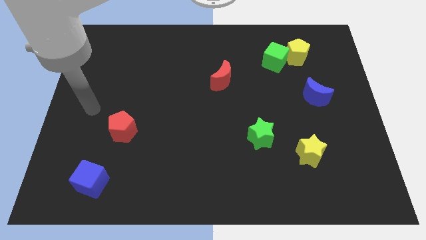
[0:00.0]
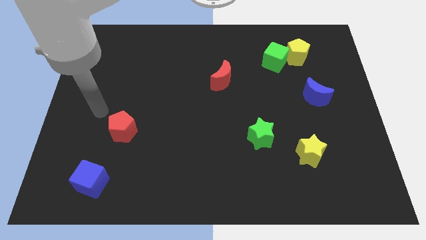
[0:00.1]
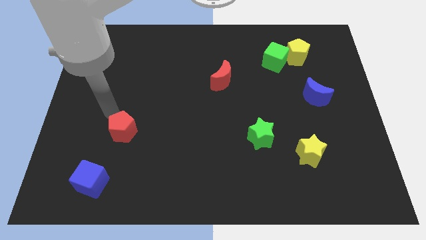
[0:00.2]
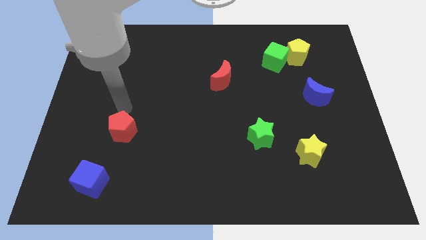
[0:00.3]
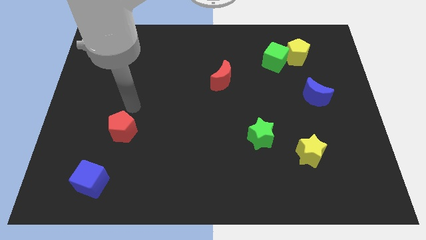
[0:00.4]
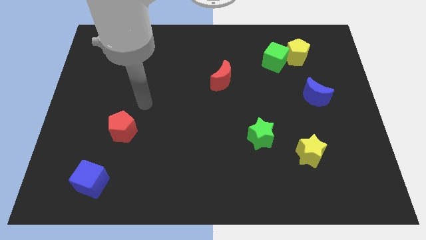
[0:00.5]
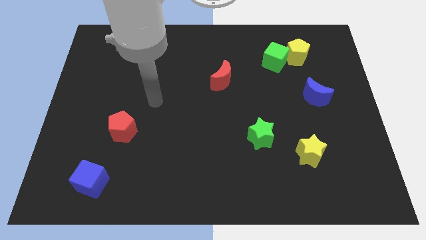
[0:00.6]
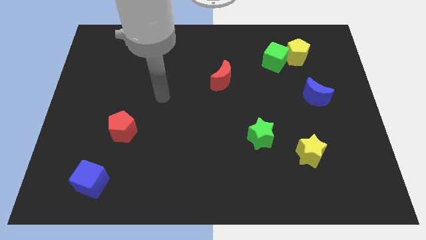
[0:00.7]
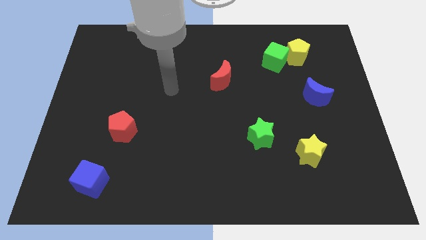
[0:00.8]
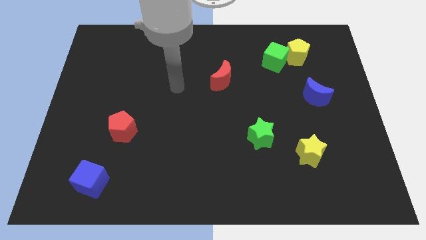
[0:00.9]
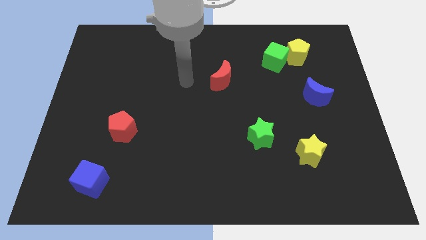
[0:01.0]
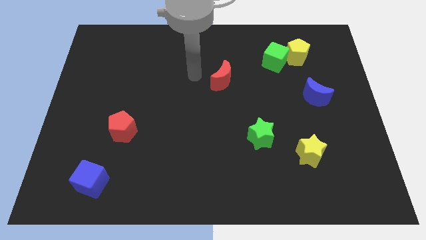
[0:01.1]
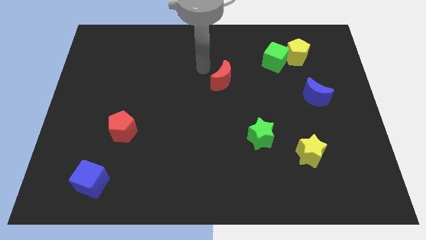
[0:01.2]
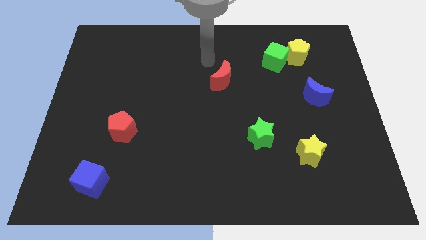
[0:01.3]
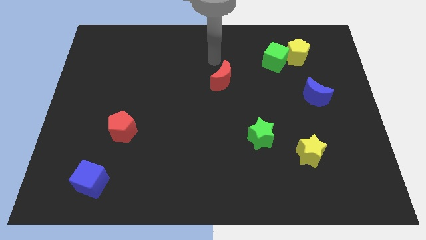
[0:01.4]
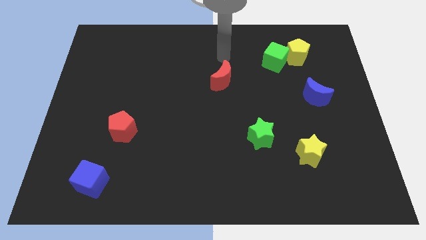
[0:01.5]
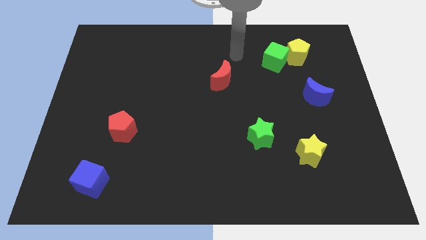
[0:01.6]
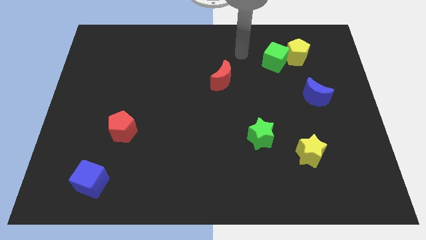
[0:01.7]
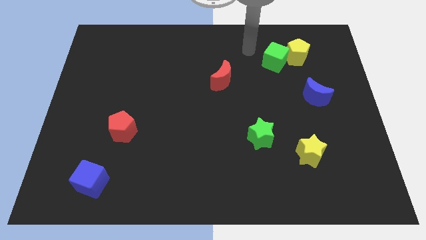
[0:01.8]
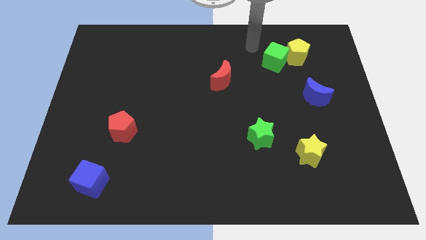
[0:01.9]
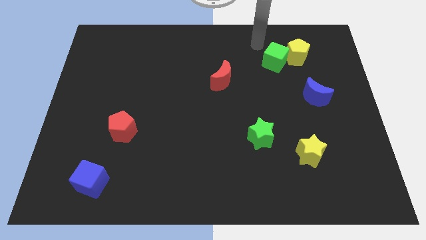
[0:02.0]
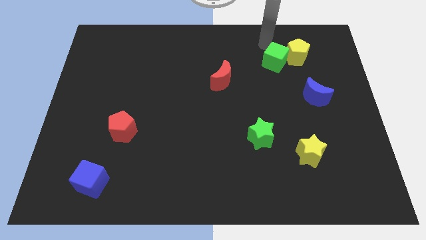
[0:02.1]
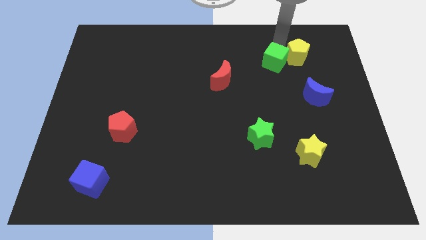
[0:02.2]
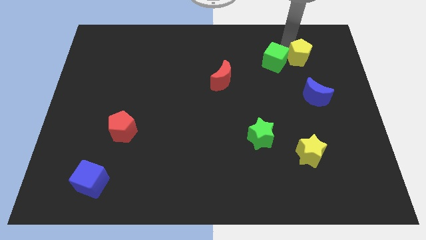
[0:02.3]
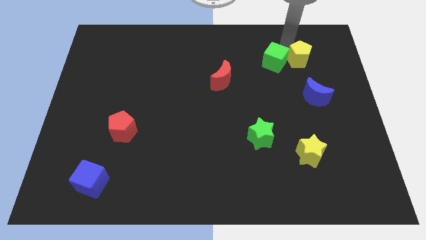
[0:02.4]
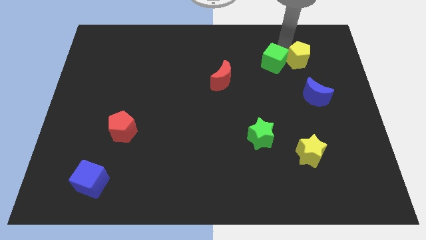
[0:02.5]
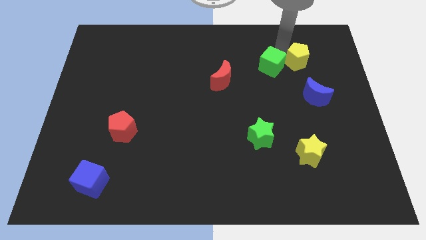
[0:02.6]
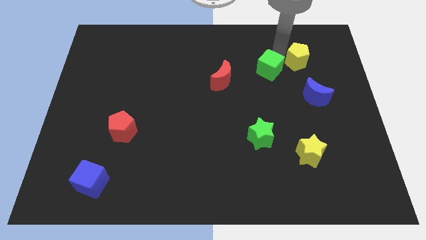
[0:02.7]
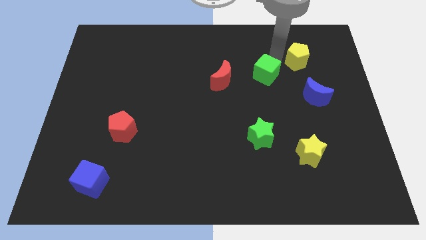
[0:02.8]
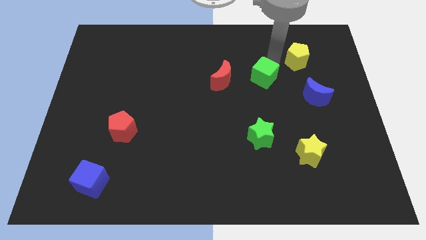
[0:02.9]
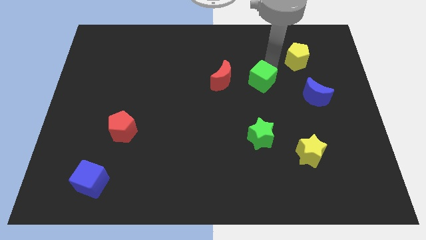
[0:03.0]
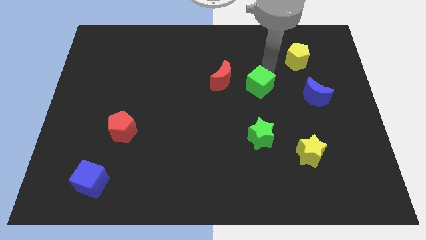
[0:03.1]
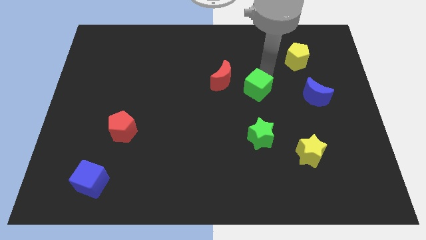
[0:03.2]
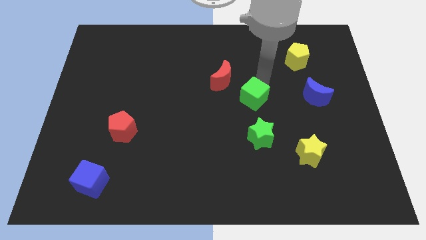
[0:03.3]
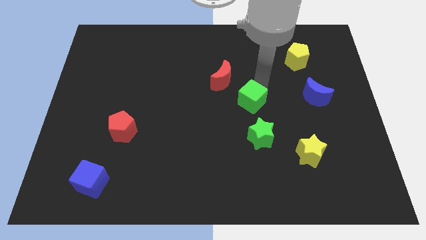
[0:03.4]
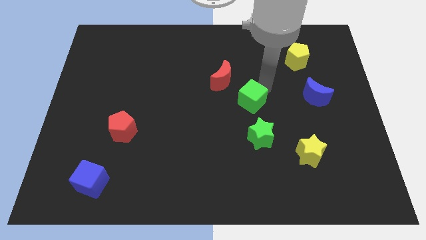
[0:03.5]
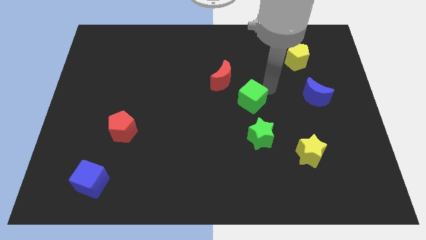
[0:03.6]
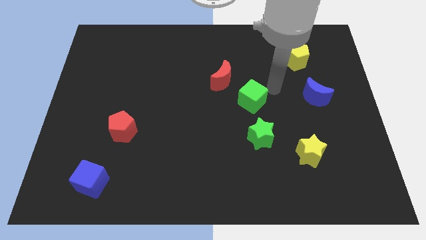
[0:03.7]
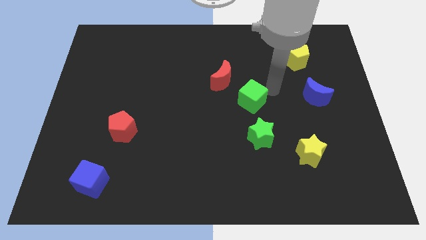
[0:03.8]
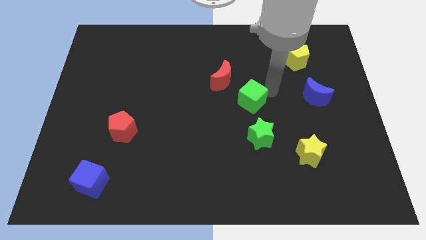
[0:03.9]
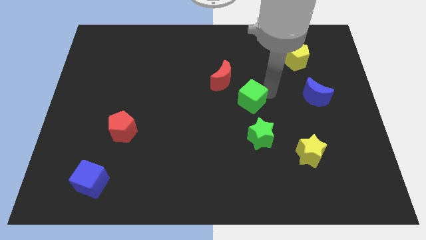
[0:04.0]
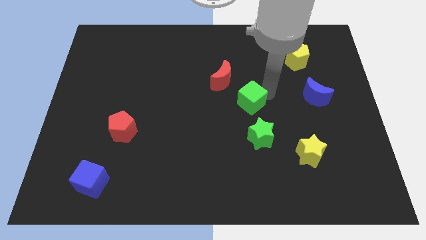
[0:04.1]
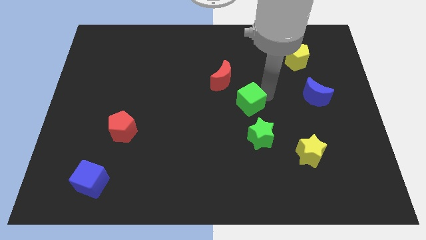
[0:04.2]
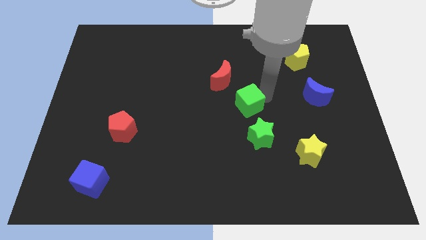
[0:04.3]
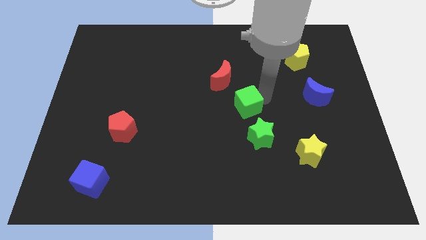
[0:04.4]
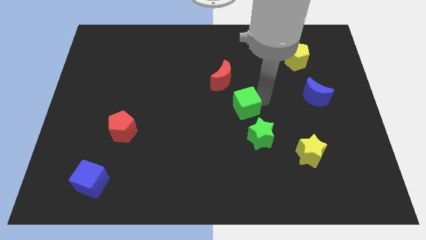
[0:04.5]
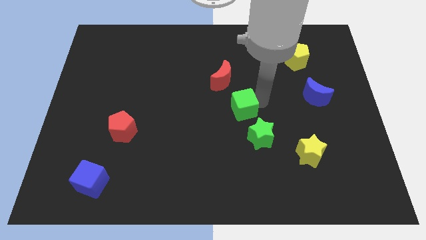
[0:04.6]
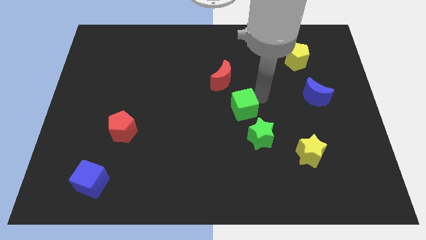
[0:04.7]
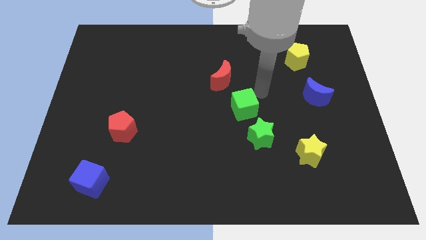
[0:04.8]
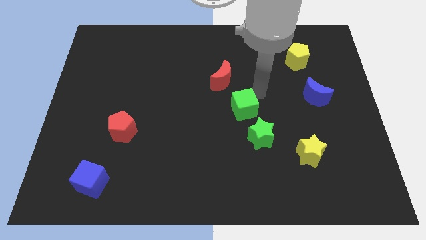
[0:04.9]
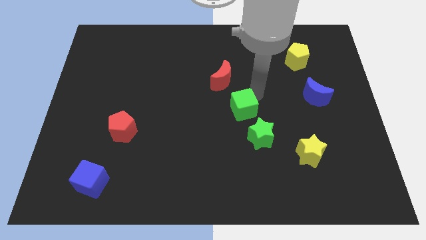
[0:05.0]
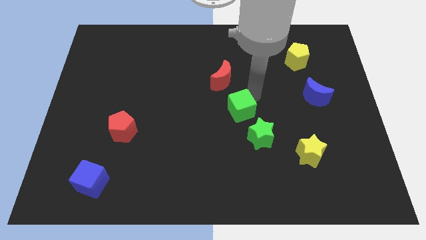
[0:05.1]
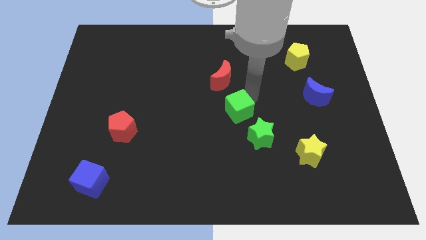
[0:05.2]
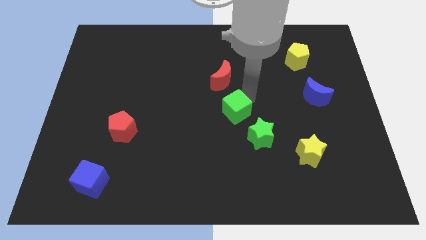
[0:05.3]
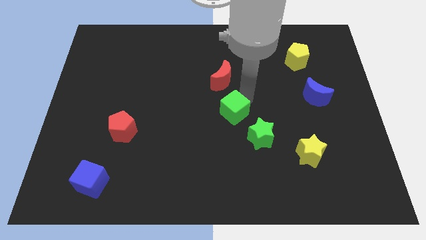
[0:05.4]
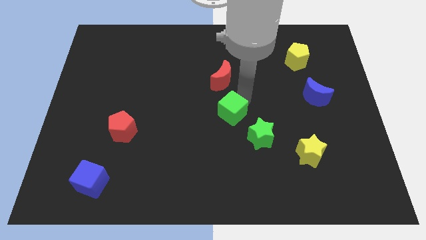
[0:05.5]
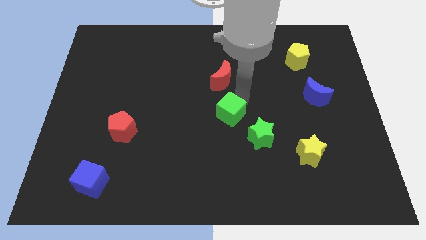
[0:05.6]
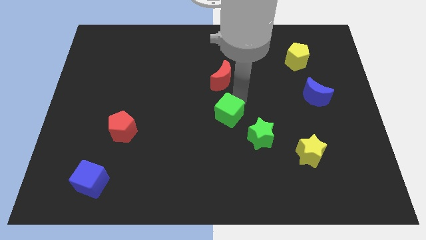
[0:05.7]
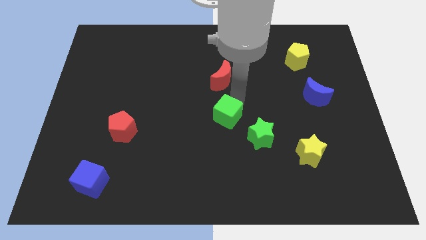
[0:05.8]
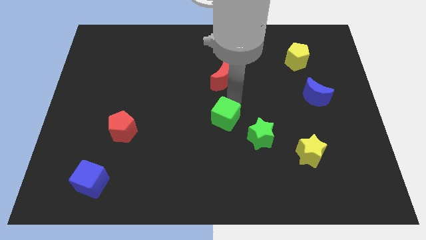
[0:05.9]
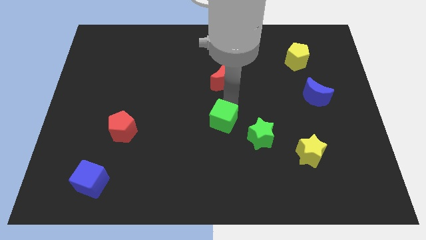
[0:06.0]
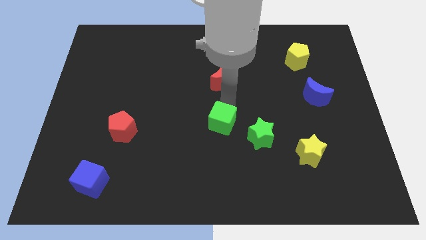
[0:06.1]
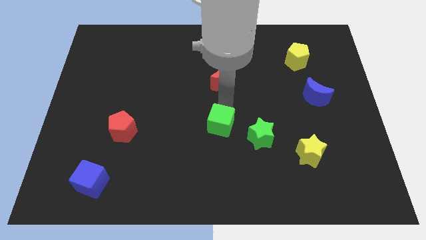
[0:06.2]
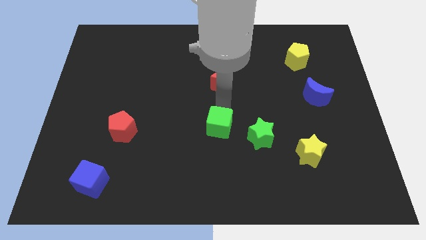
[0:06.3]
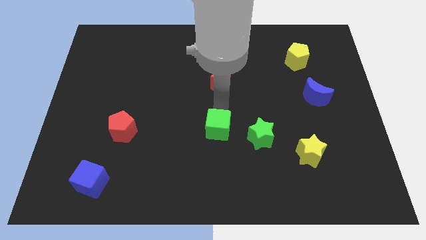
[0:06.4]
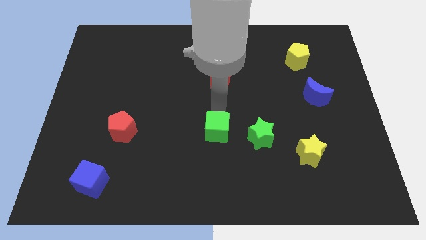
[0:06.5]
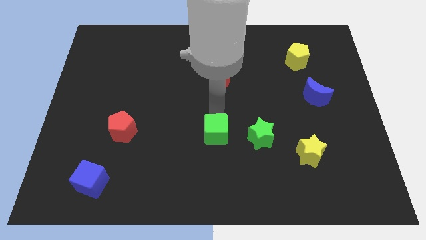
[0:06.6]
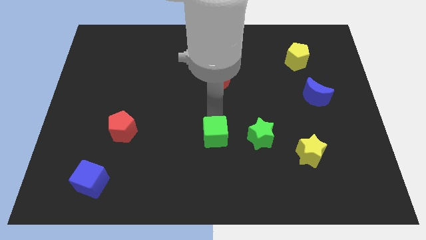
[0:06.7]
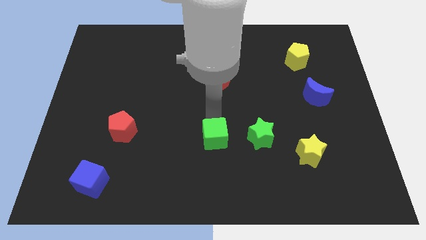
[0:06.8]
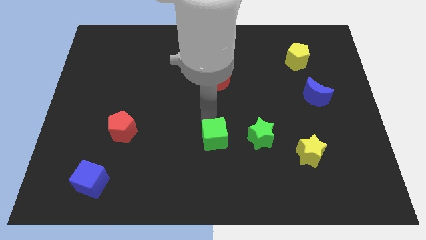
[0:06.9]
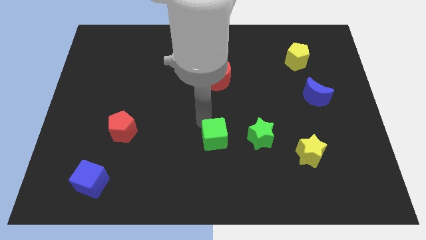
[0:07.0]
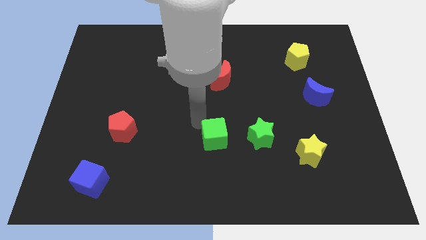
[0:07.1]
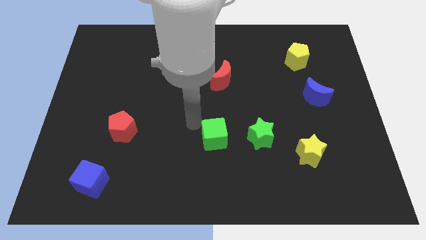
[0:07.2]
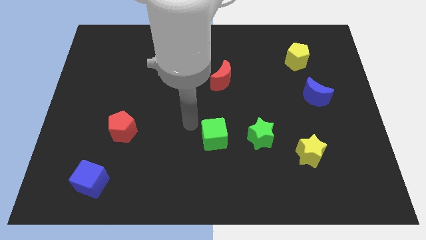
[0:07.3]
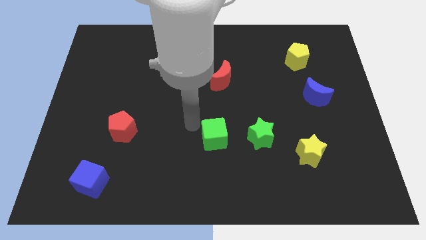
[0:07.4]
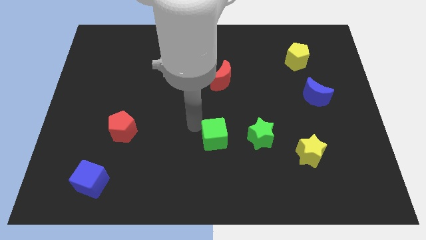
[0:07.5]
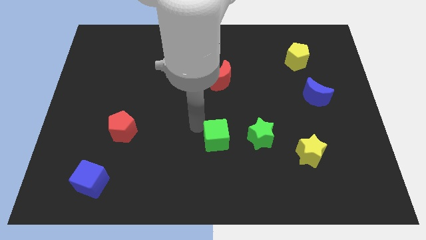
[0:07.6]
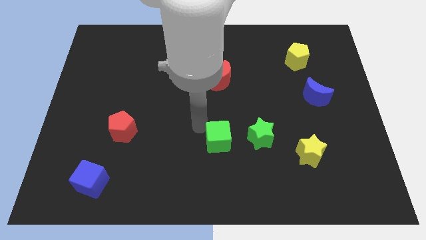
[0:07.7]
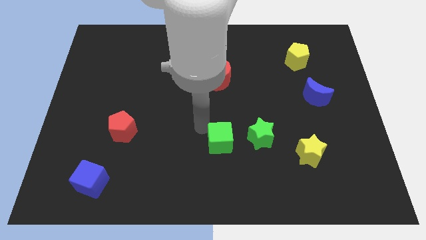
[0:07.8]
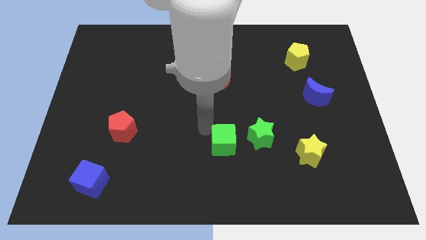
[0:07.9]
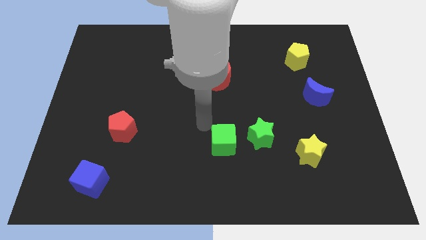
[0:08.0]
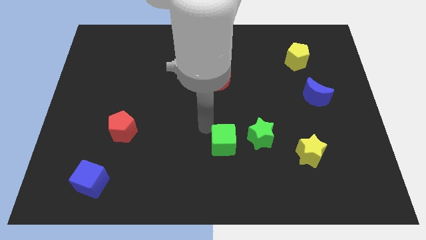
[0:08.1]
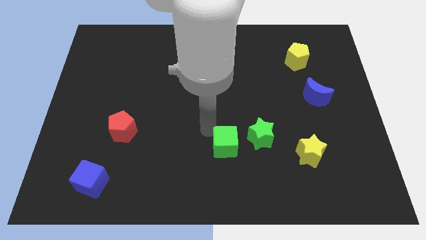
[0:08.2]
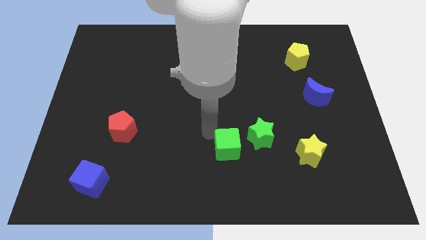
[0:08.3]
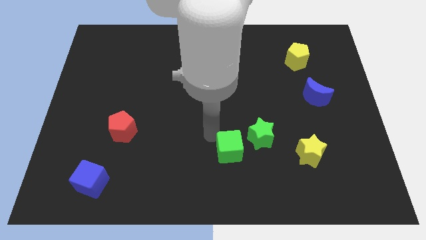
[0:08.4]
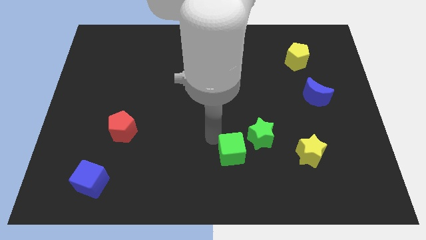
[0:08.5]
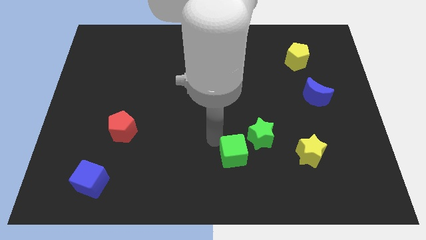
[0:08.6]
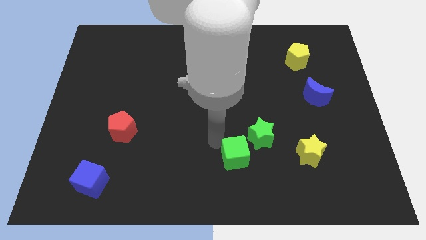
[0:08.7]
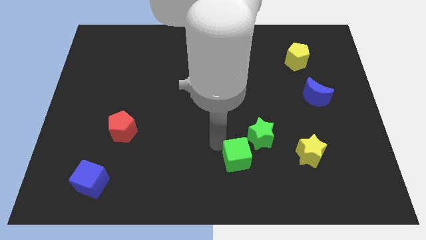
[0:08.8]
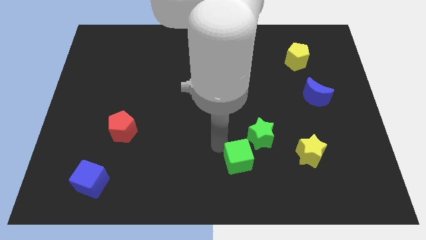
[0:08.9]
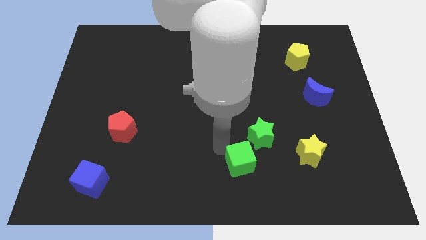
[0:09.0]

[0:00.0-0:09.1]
slide the green cube to the bottom of the green star
